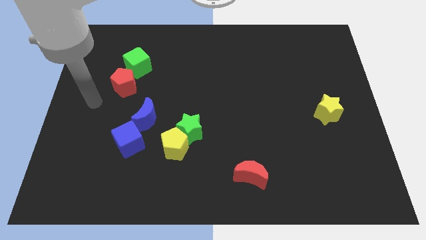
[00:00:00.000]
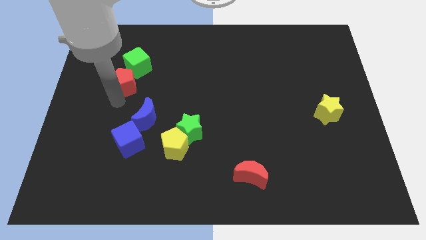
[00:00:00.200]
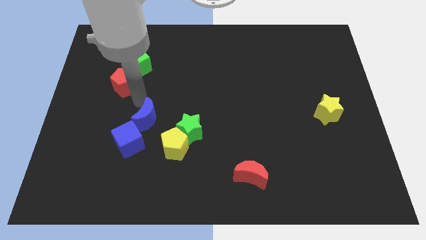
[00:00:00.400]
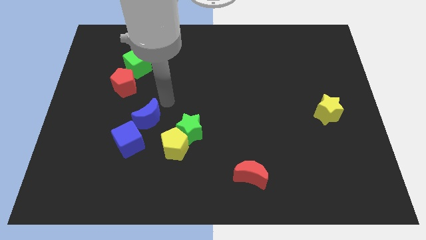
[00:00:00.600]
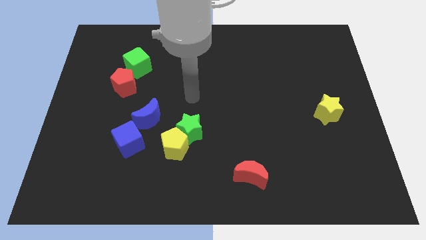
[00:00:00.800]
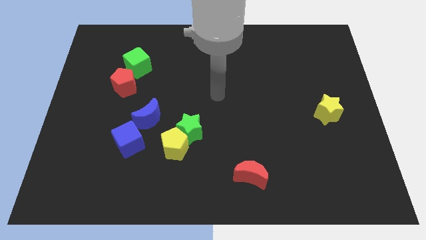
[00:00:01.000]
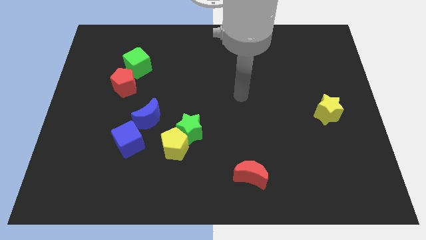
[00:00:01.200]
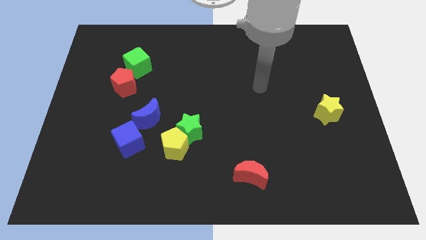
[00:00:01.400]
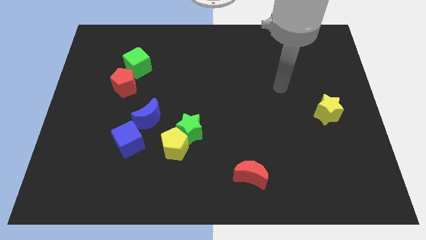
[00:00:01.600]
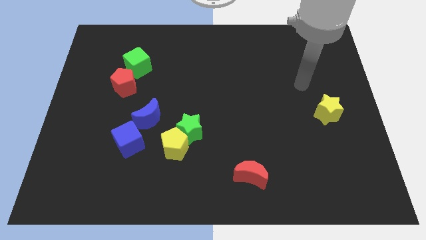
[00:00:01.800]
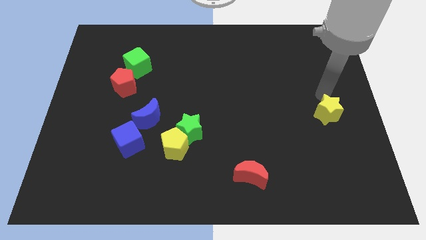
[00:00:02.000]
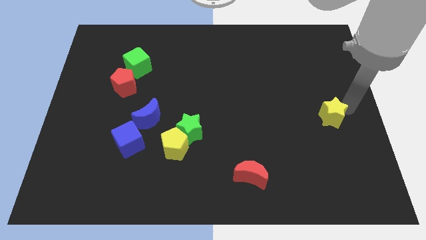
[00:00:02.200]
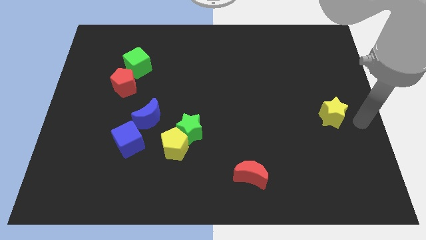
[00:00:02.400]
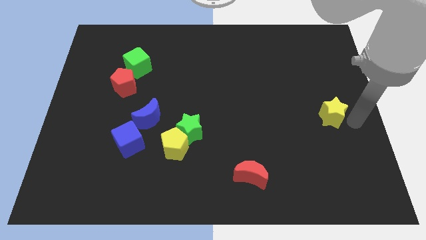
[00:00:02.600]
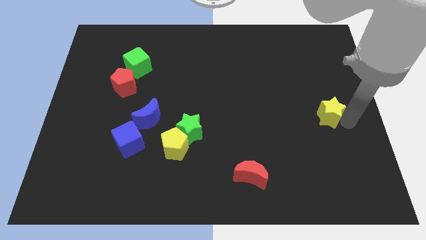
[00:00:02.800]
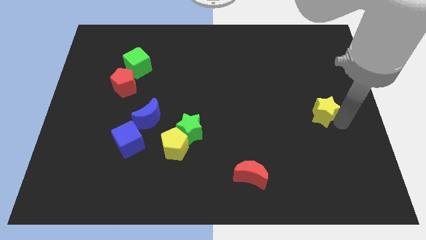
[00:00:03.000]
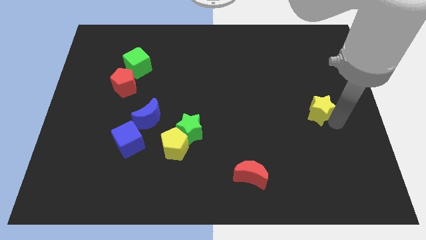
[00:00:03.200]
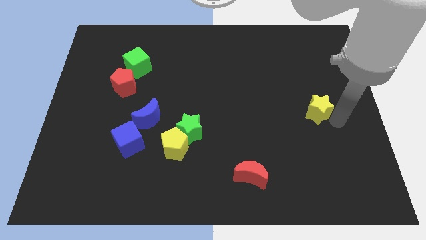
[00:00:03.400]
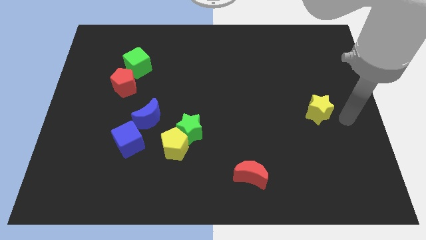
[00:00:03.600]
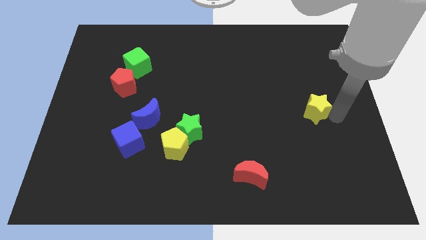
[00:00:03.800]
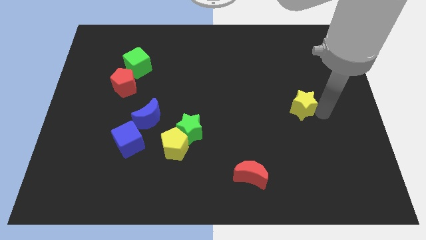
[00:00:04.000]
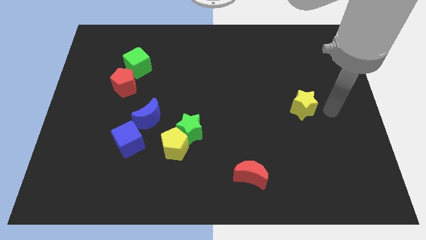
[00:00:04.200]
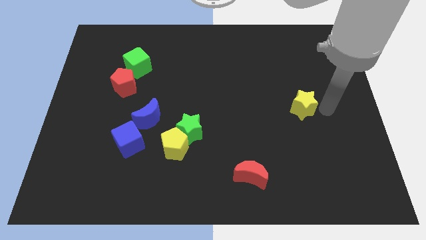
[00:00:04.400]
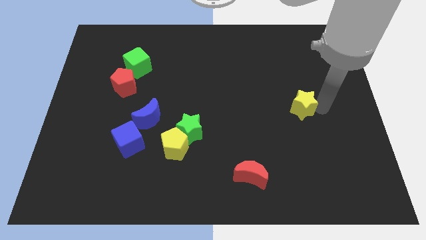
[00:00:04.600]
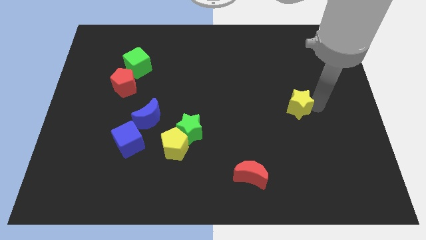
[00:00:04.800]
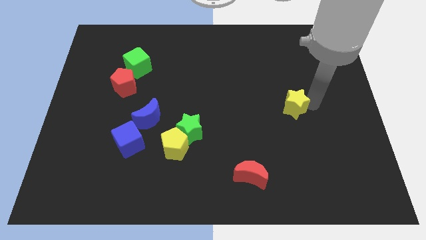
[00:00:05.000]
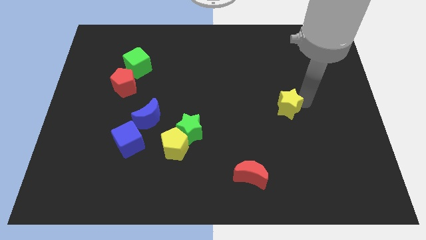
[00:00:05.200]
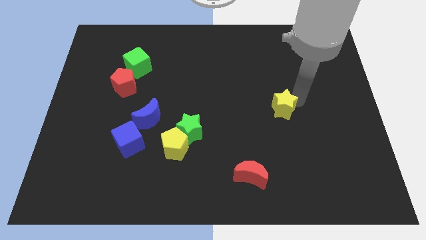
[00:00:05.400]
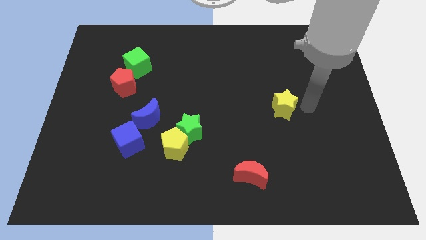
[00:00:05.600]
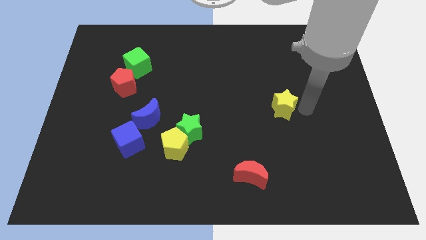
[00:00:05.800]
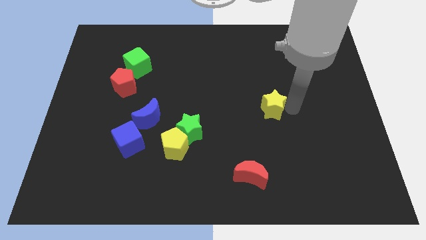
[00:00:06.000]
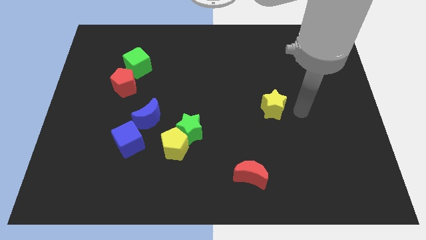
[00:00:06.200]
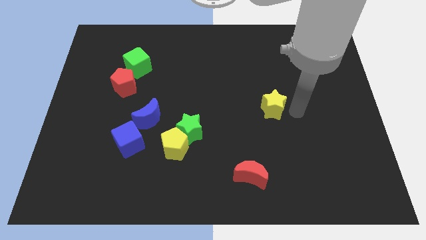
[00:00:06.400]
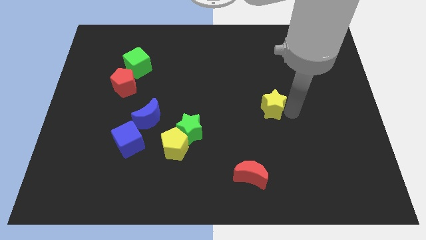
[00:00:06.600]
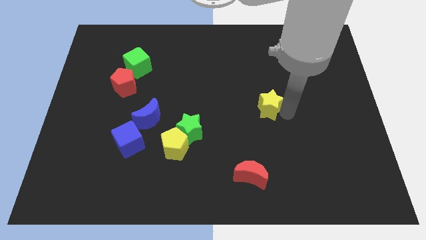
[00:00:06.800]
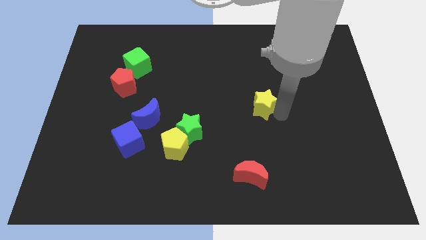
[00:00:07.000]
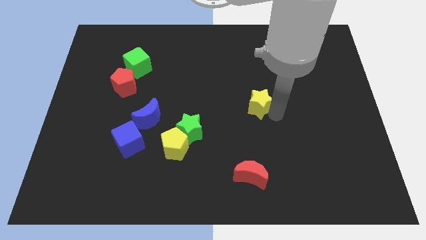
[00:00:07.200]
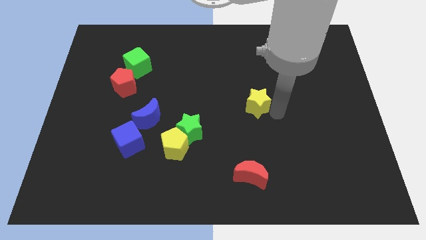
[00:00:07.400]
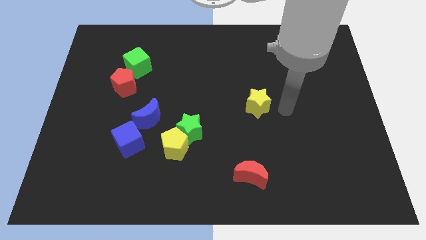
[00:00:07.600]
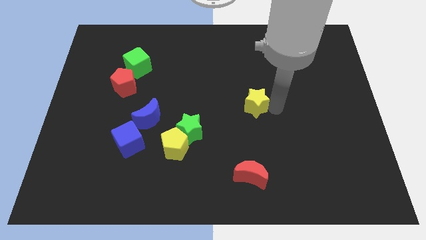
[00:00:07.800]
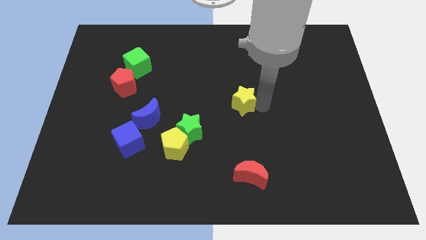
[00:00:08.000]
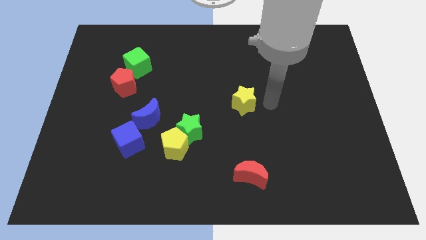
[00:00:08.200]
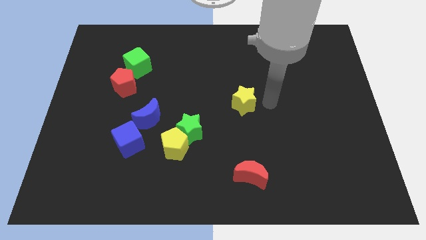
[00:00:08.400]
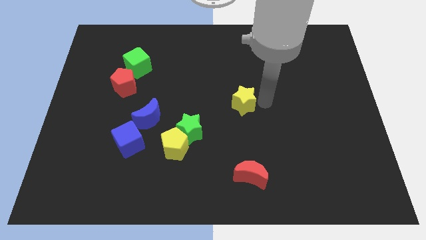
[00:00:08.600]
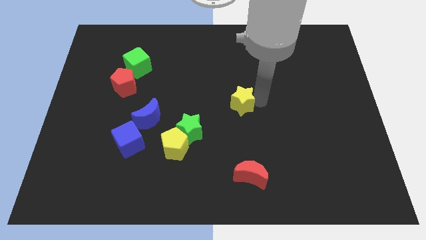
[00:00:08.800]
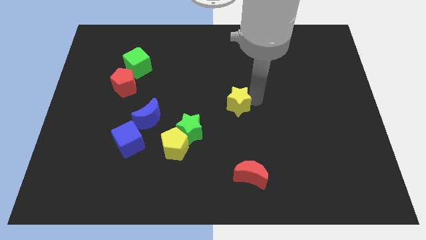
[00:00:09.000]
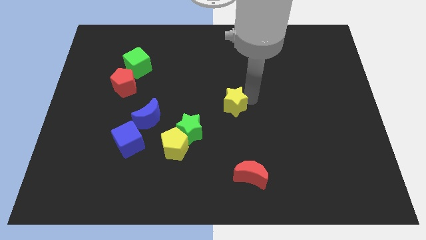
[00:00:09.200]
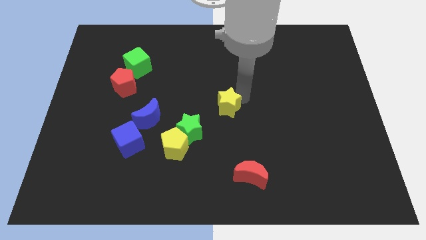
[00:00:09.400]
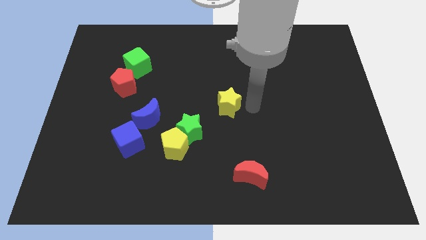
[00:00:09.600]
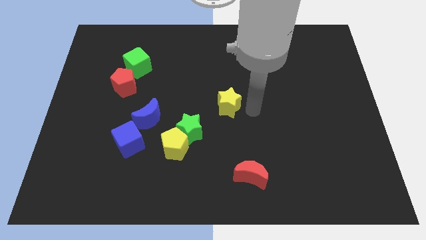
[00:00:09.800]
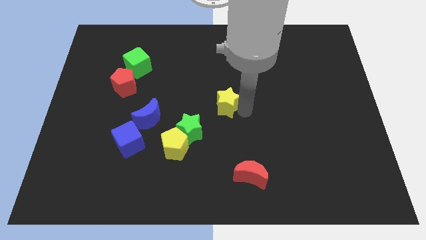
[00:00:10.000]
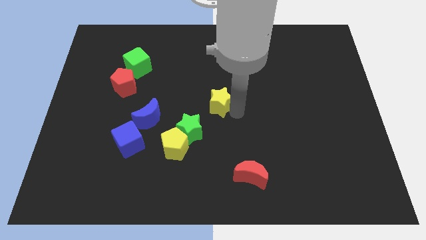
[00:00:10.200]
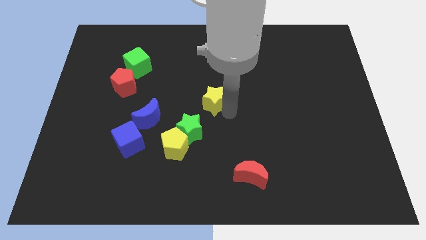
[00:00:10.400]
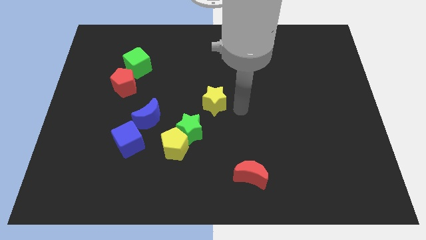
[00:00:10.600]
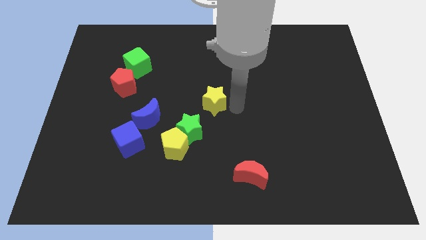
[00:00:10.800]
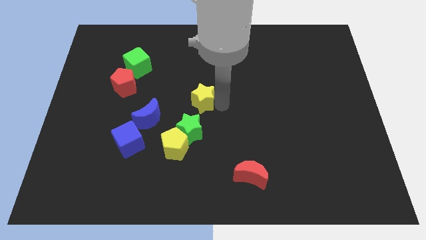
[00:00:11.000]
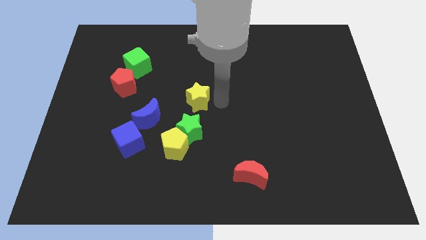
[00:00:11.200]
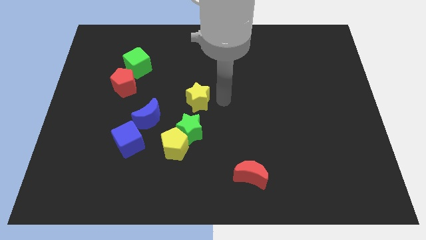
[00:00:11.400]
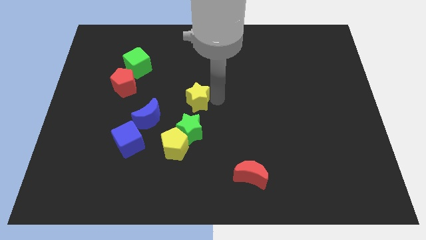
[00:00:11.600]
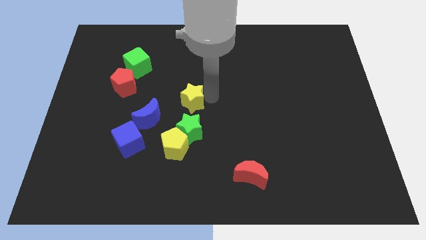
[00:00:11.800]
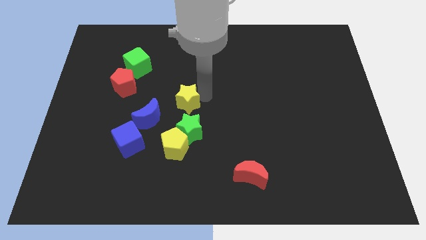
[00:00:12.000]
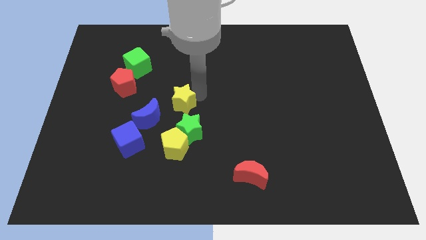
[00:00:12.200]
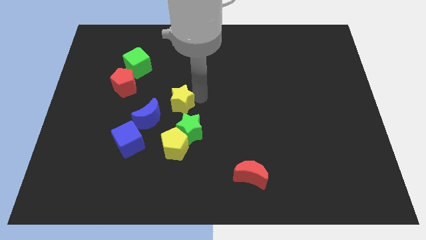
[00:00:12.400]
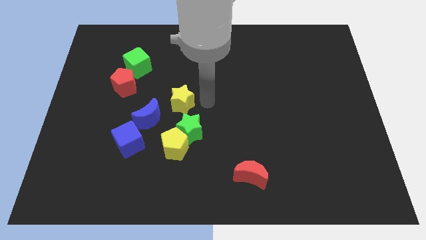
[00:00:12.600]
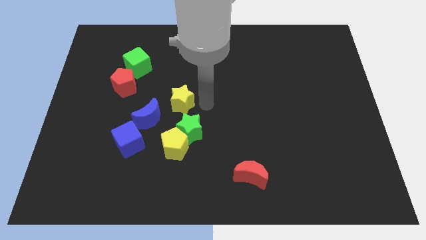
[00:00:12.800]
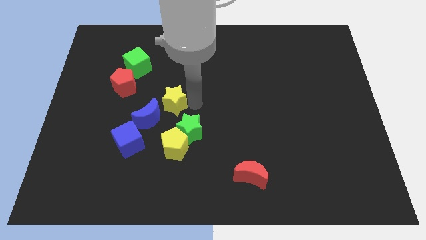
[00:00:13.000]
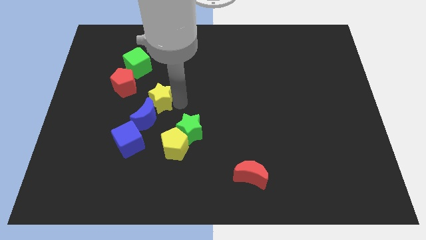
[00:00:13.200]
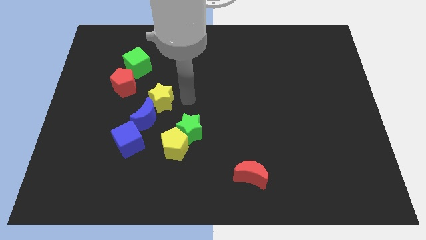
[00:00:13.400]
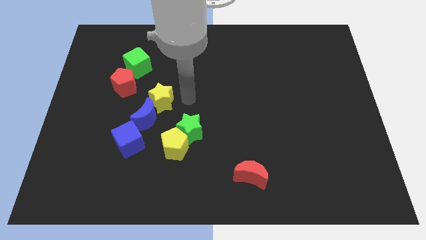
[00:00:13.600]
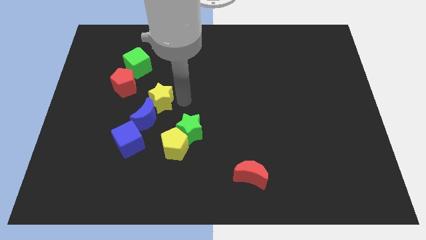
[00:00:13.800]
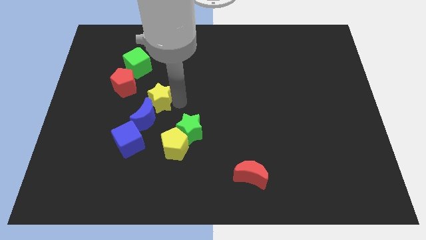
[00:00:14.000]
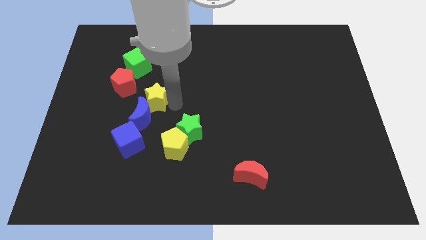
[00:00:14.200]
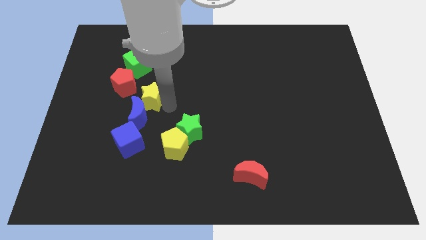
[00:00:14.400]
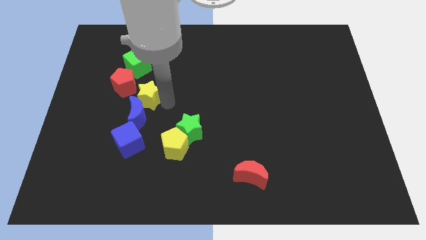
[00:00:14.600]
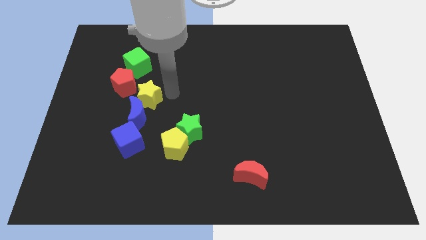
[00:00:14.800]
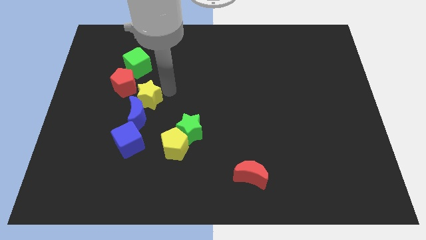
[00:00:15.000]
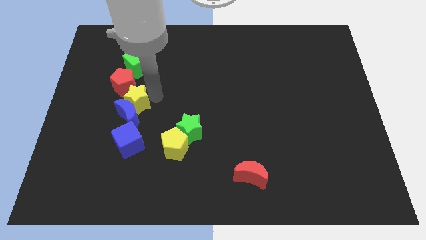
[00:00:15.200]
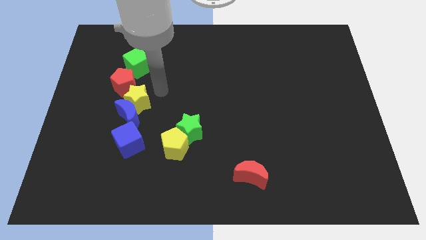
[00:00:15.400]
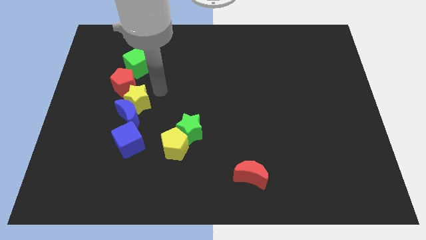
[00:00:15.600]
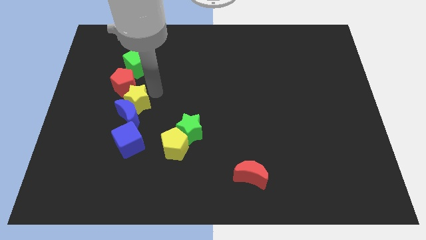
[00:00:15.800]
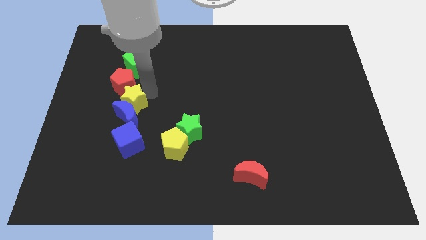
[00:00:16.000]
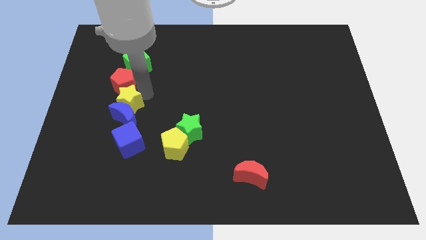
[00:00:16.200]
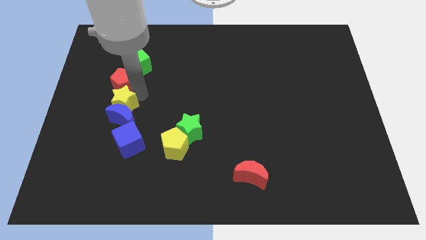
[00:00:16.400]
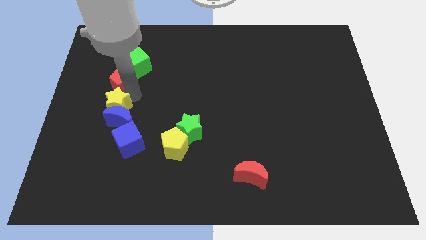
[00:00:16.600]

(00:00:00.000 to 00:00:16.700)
put the yellow star to the top left side of the blue cube
